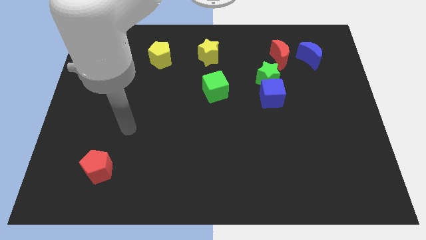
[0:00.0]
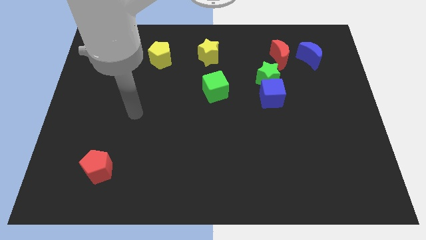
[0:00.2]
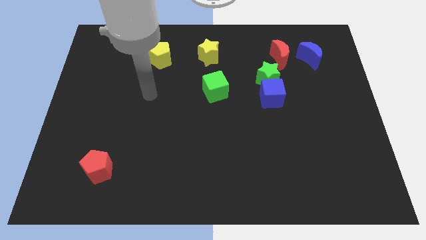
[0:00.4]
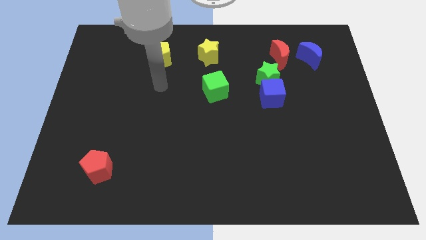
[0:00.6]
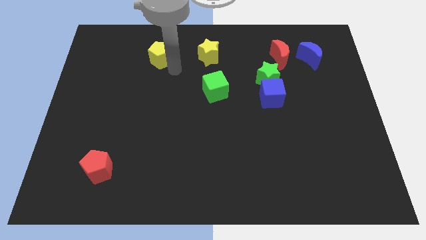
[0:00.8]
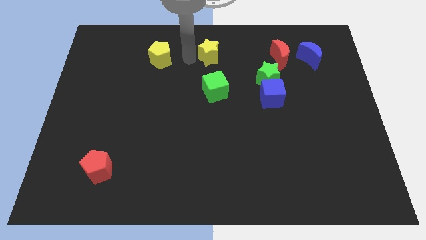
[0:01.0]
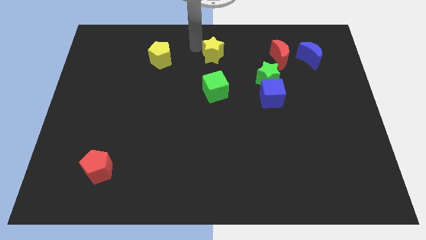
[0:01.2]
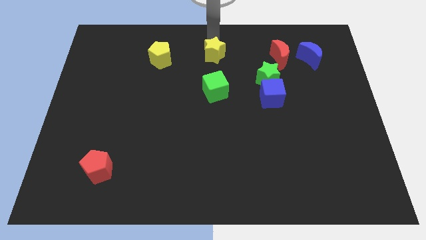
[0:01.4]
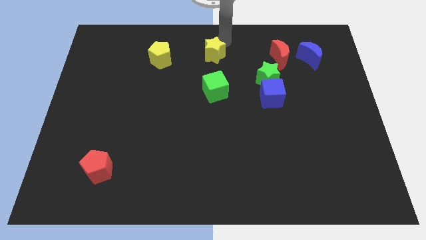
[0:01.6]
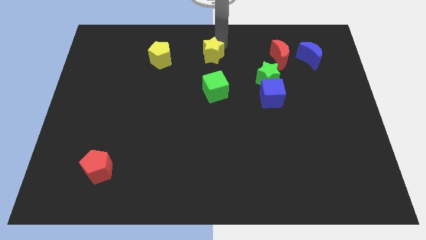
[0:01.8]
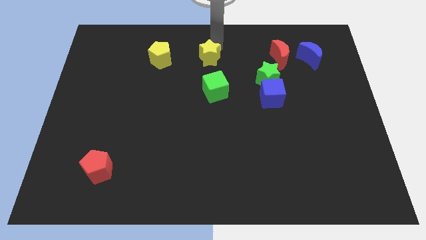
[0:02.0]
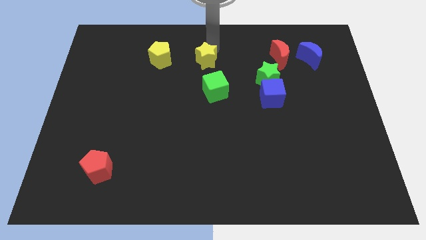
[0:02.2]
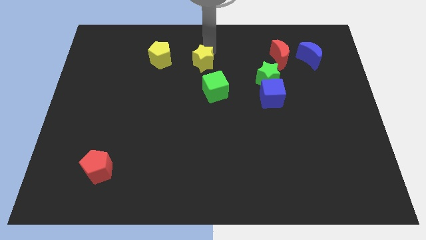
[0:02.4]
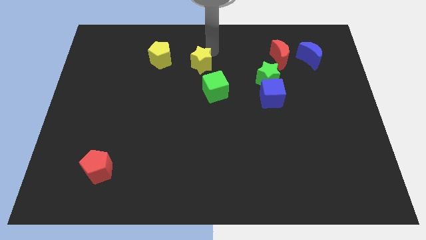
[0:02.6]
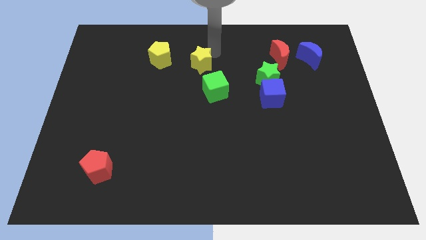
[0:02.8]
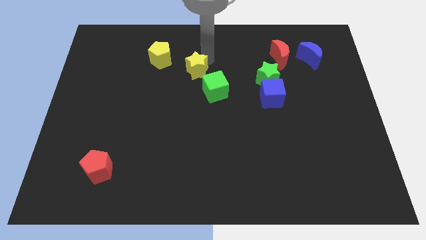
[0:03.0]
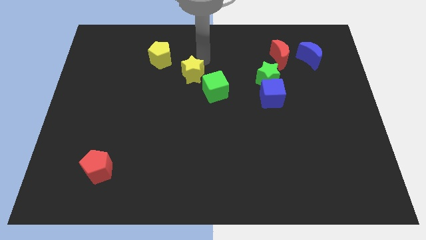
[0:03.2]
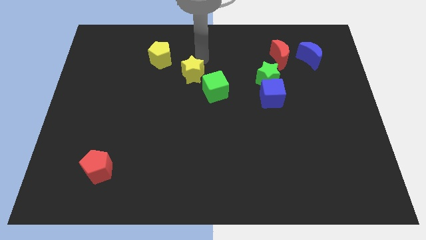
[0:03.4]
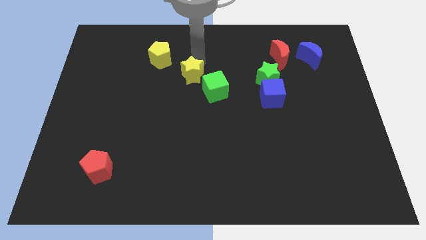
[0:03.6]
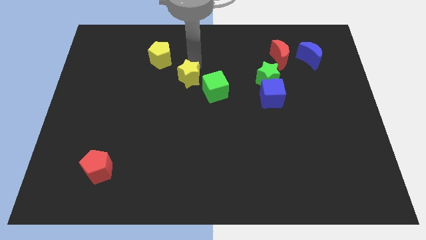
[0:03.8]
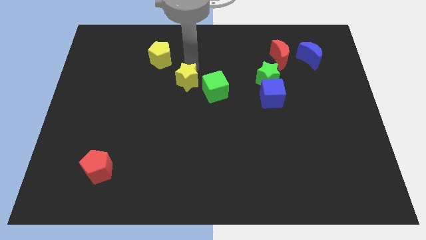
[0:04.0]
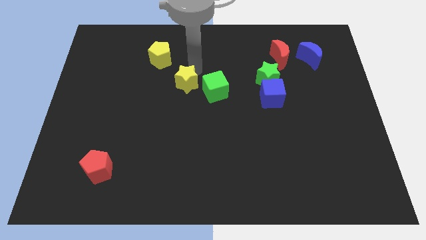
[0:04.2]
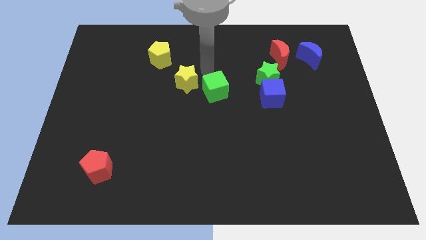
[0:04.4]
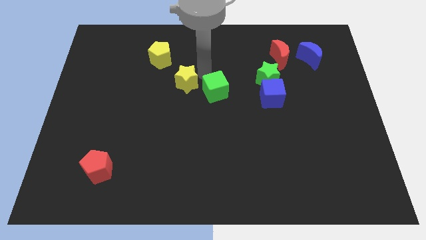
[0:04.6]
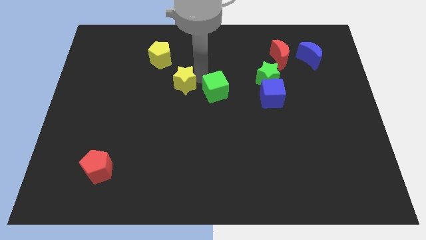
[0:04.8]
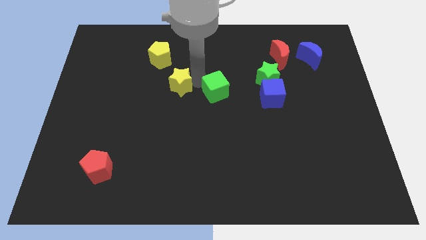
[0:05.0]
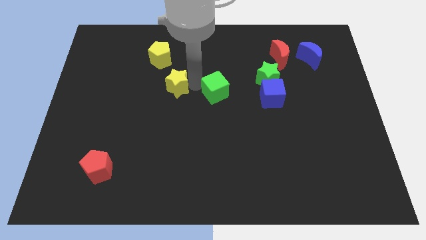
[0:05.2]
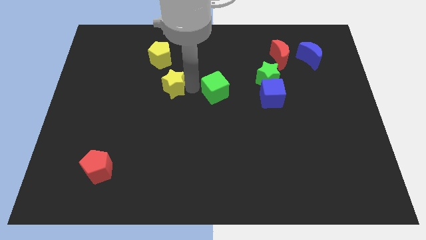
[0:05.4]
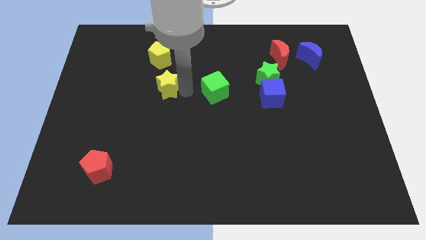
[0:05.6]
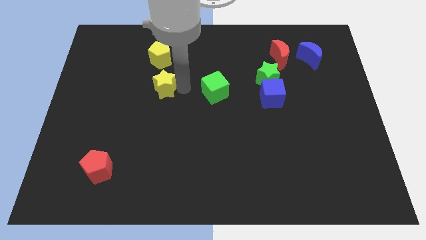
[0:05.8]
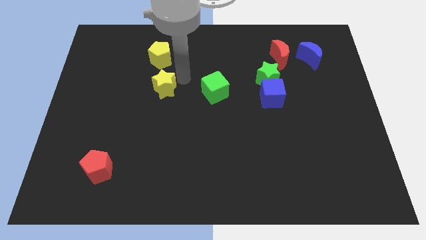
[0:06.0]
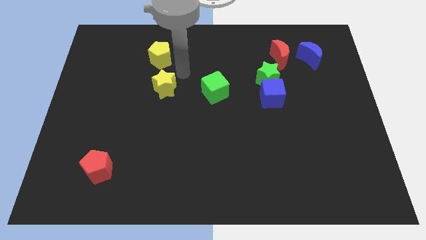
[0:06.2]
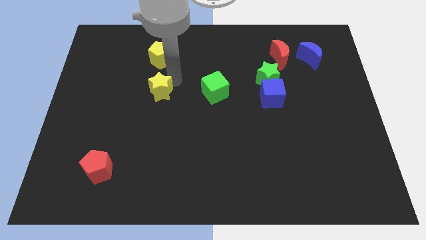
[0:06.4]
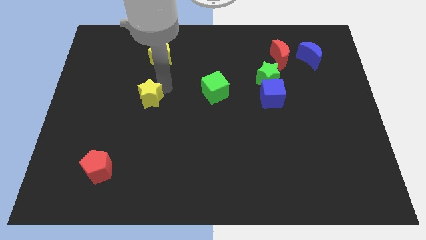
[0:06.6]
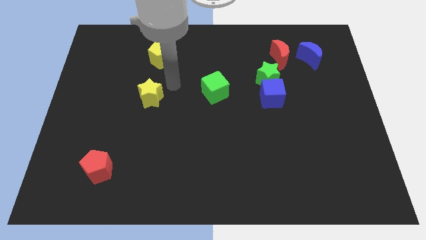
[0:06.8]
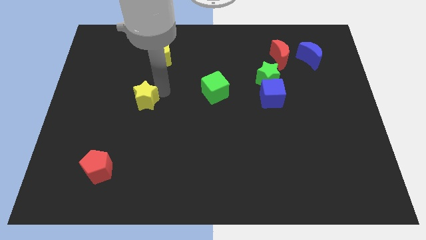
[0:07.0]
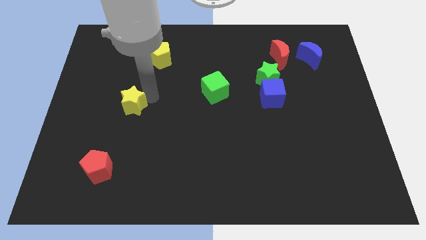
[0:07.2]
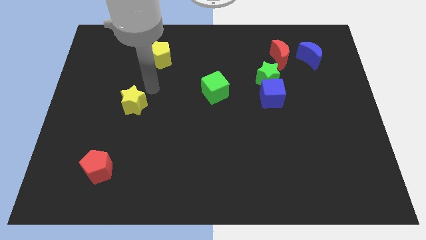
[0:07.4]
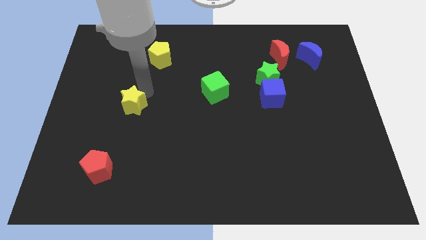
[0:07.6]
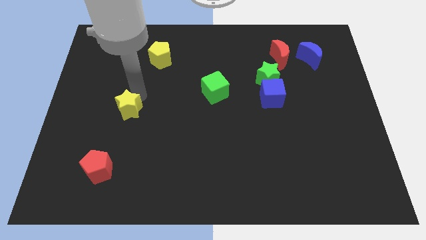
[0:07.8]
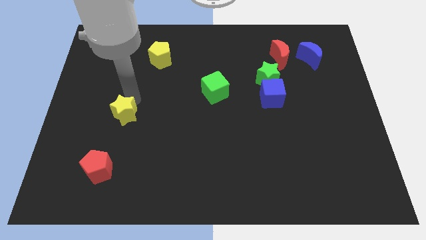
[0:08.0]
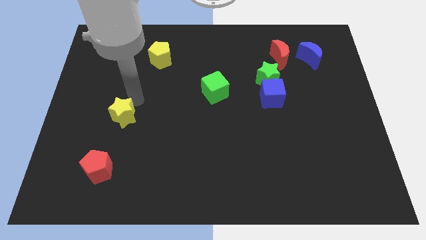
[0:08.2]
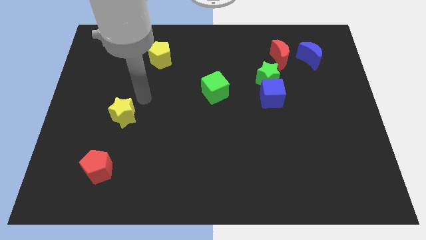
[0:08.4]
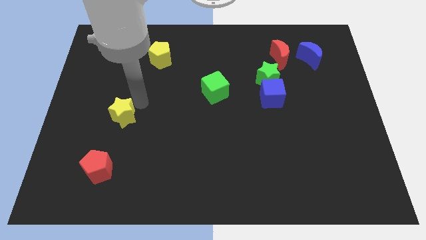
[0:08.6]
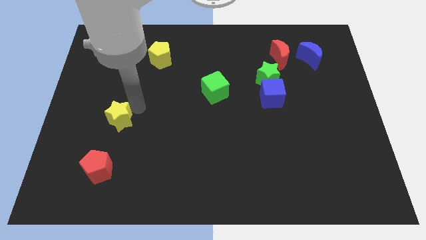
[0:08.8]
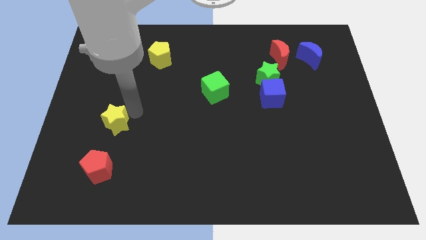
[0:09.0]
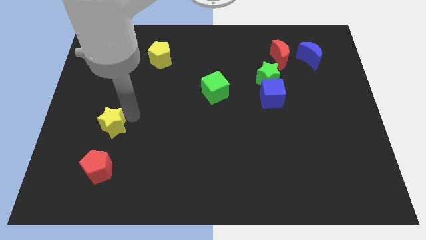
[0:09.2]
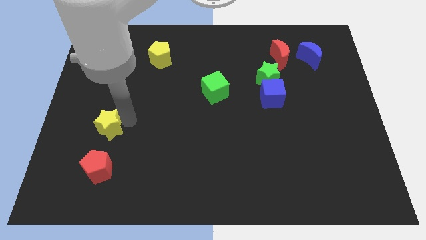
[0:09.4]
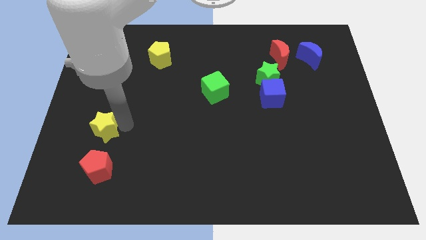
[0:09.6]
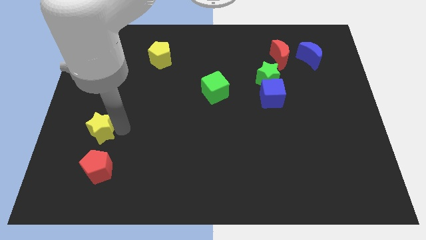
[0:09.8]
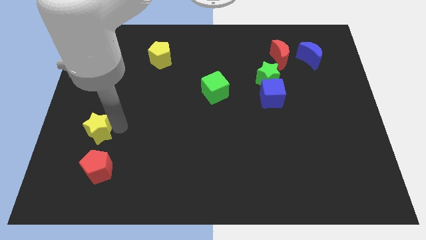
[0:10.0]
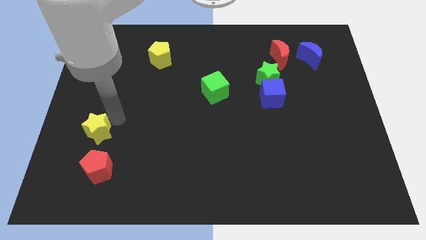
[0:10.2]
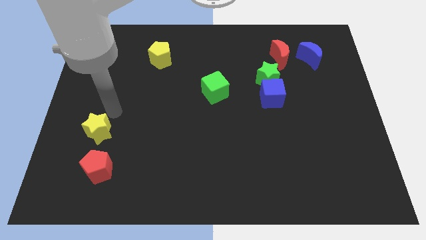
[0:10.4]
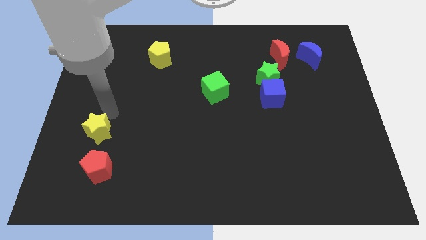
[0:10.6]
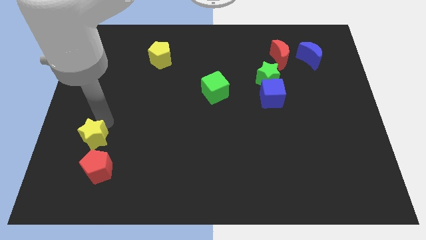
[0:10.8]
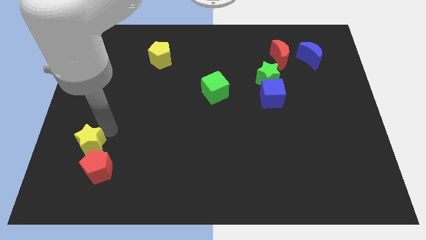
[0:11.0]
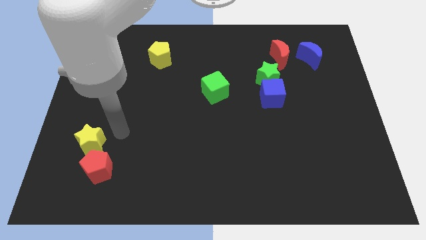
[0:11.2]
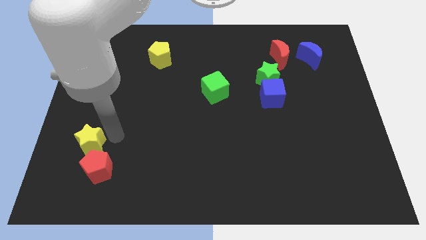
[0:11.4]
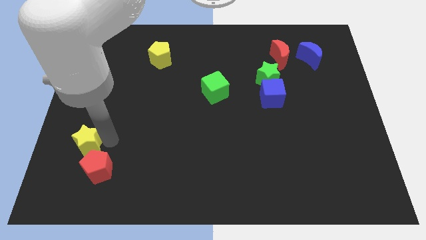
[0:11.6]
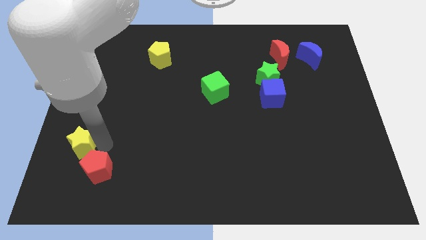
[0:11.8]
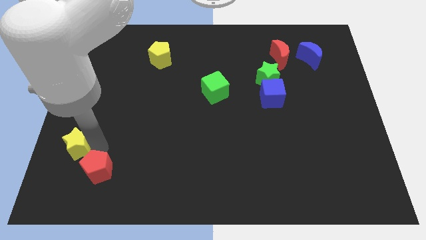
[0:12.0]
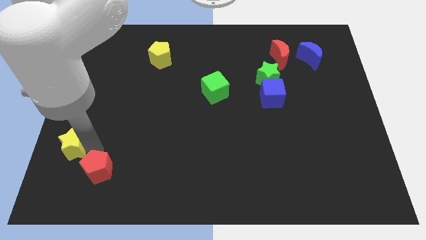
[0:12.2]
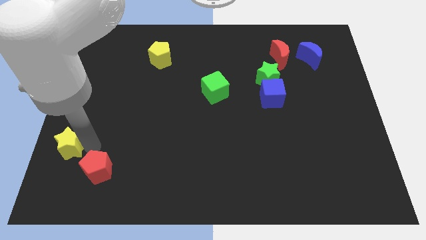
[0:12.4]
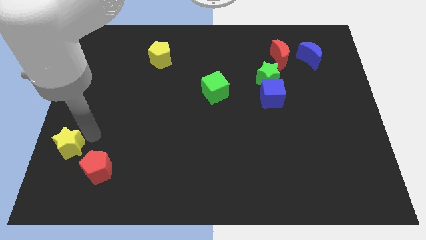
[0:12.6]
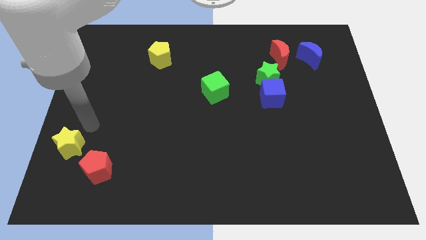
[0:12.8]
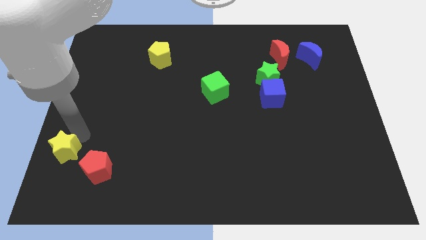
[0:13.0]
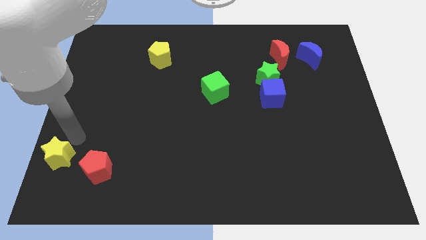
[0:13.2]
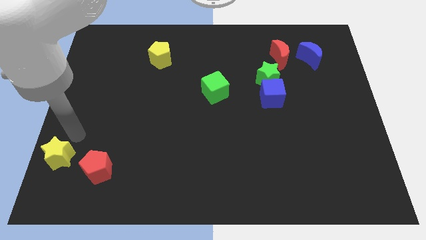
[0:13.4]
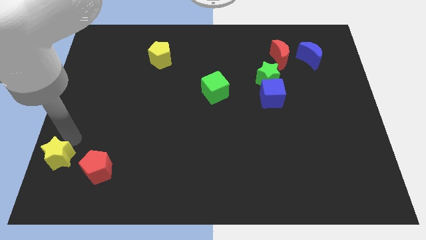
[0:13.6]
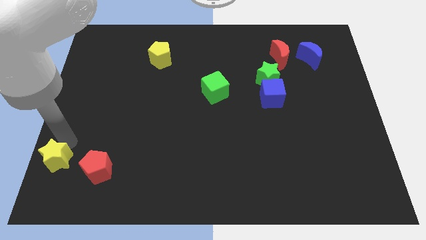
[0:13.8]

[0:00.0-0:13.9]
slide the yellow star to the bottom left of the board
